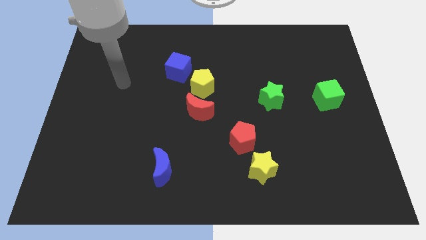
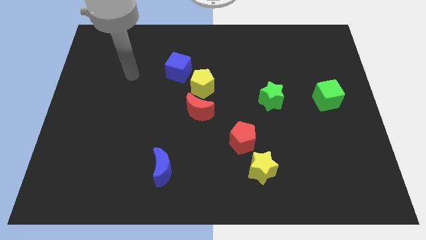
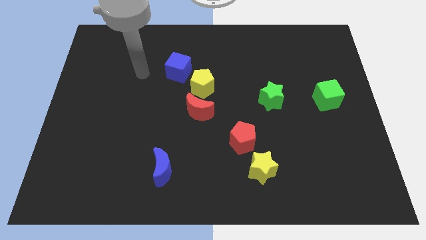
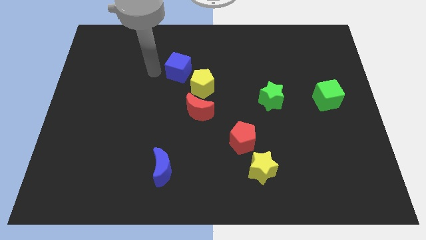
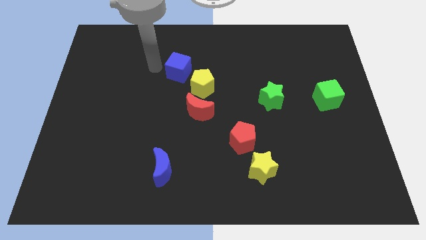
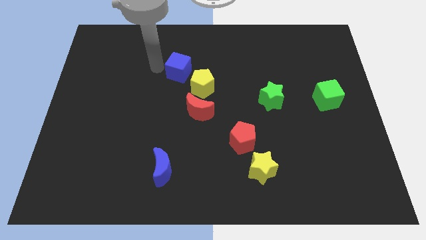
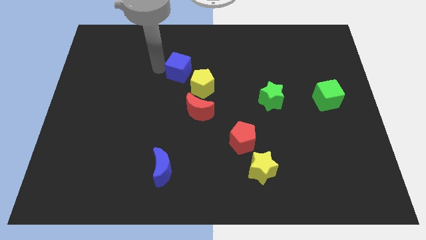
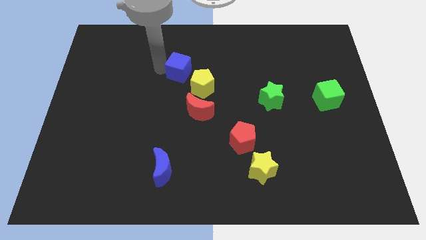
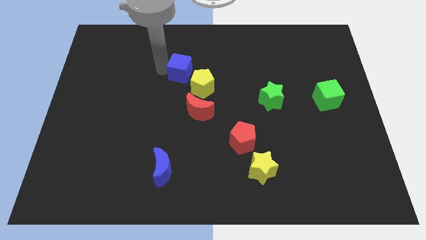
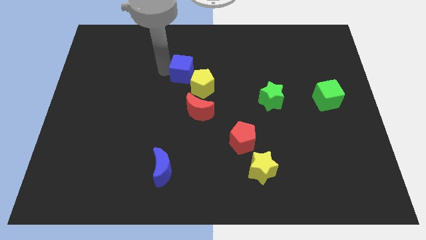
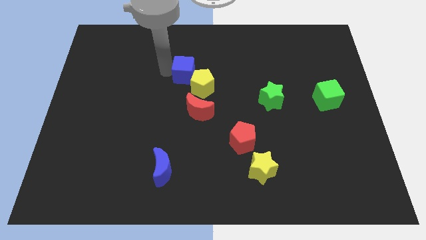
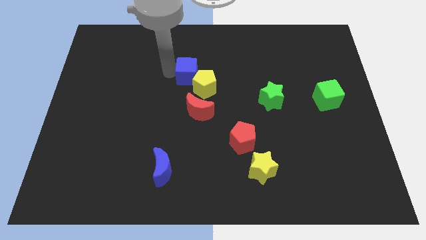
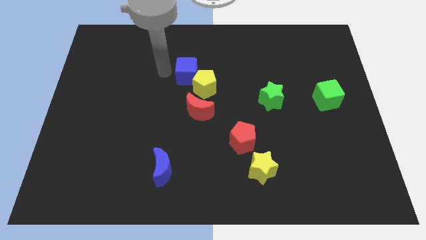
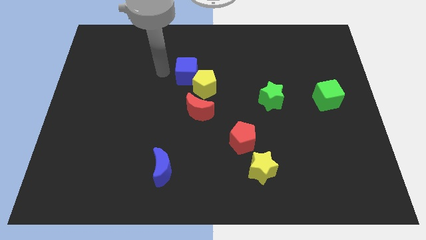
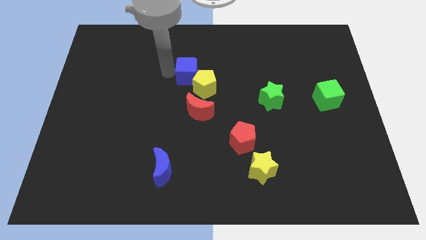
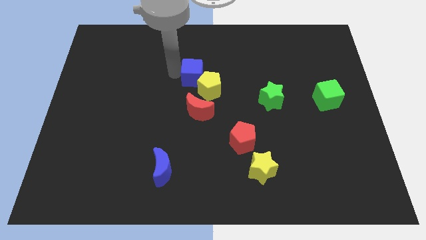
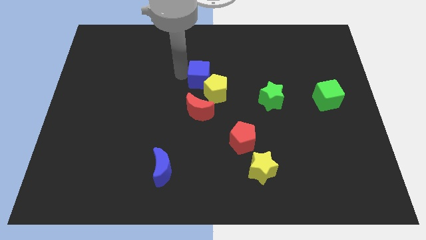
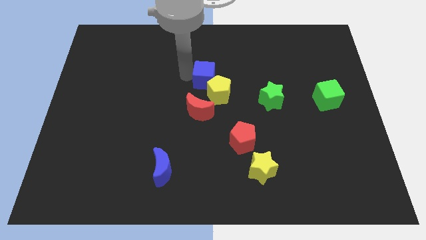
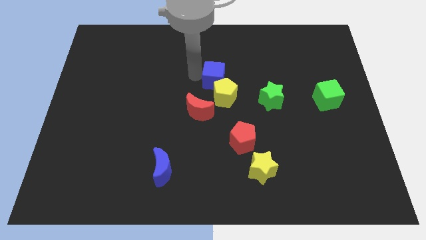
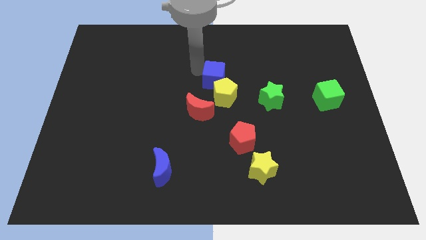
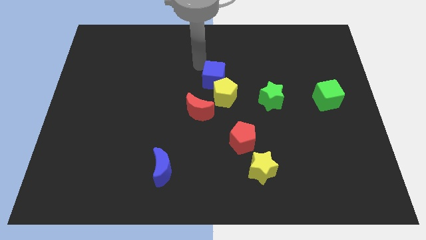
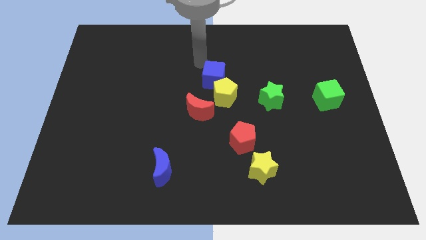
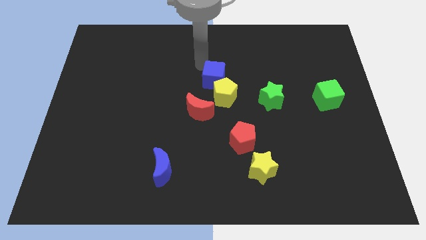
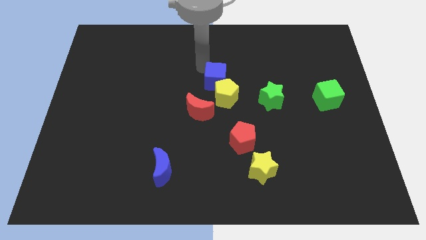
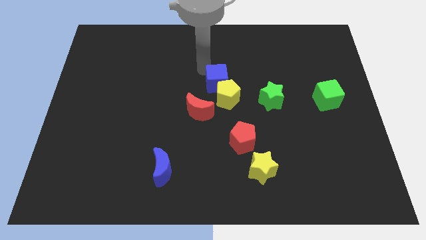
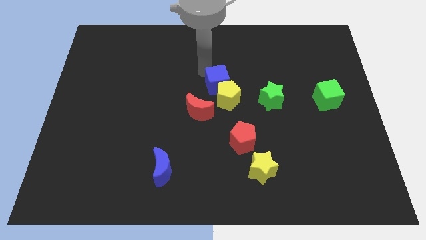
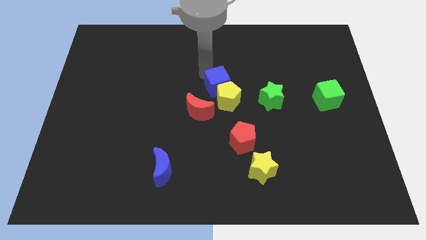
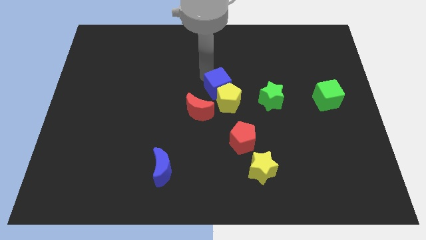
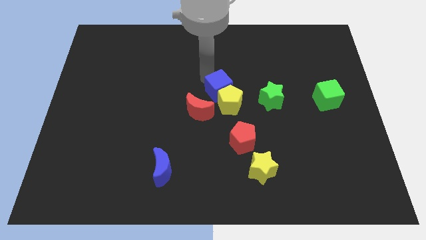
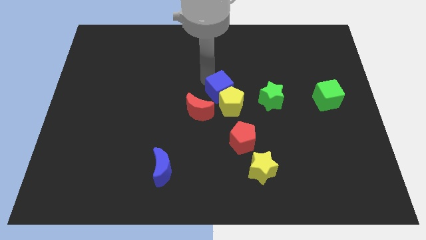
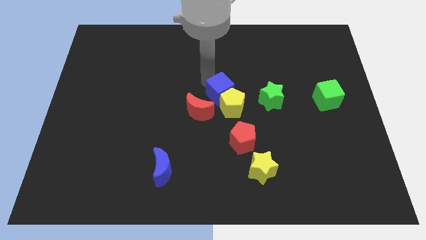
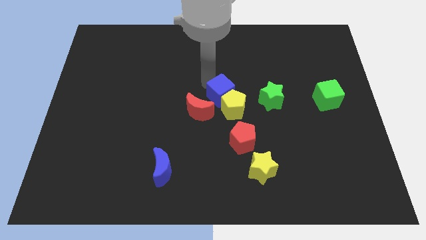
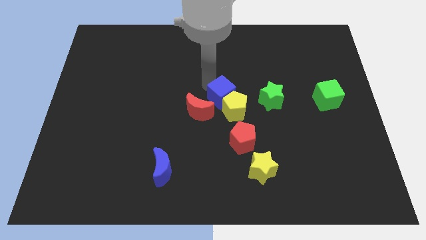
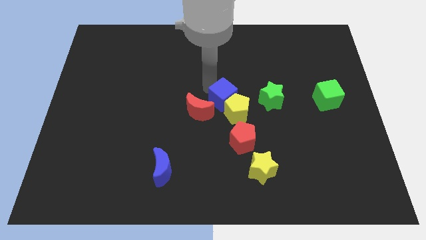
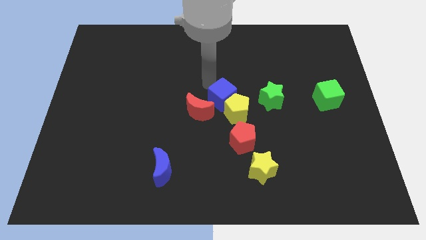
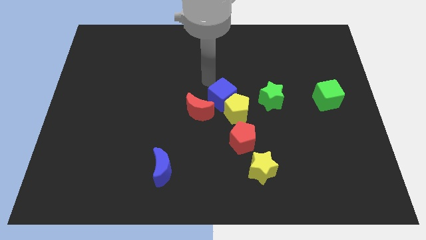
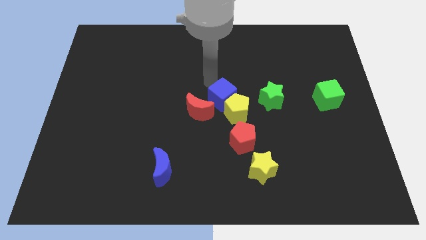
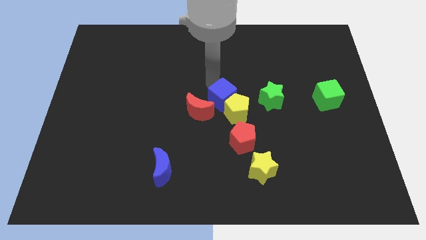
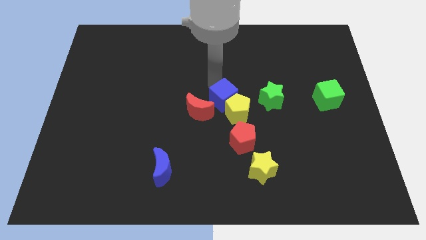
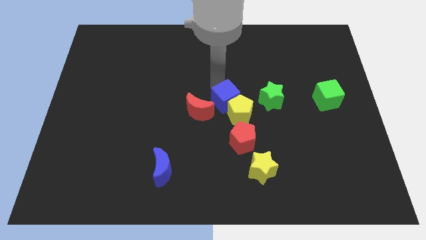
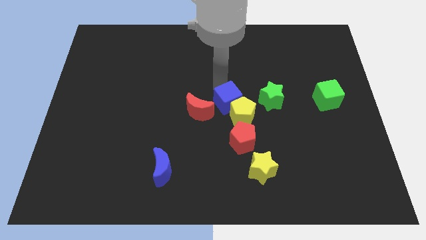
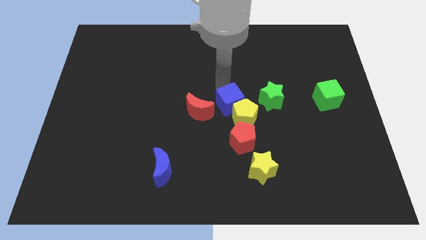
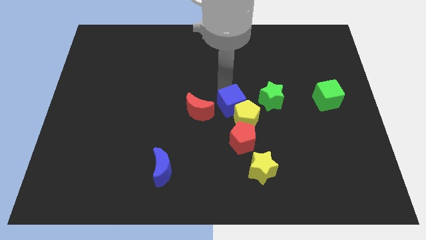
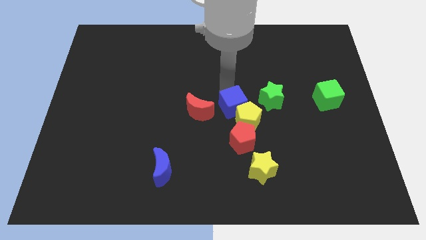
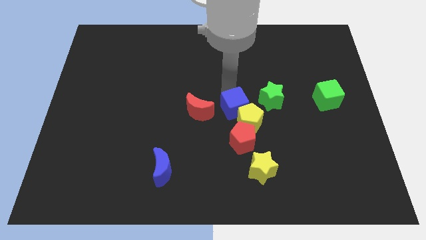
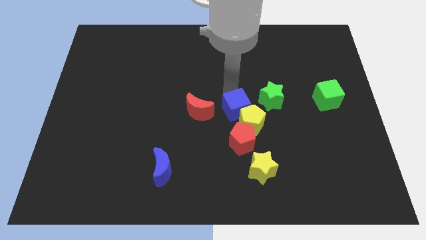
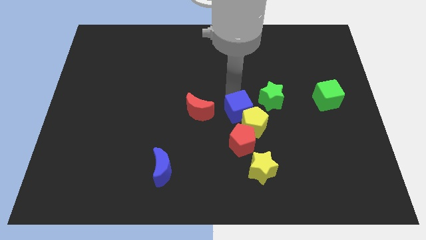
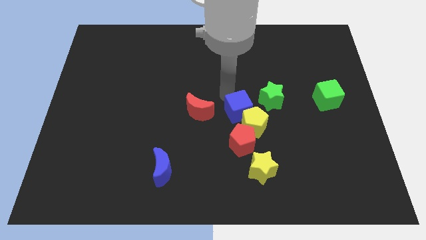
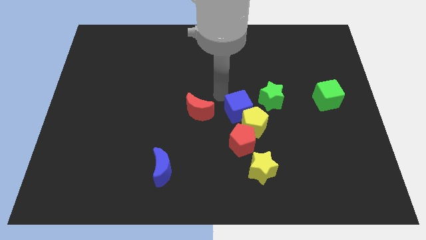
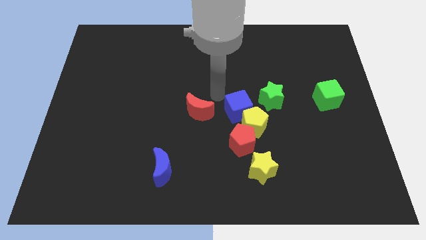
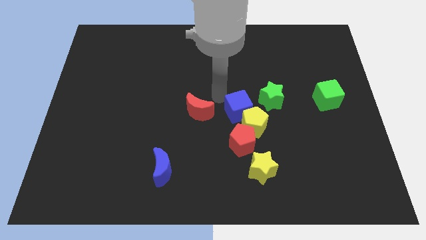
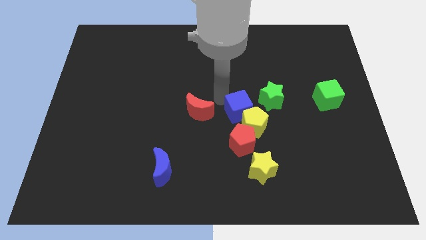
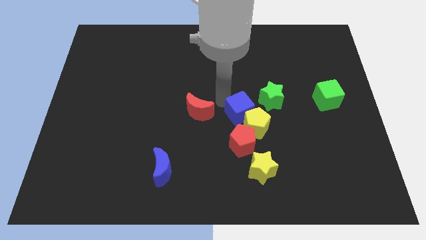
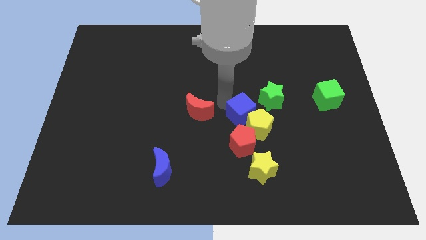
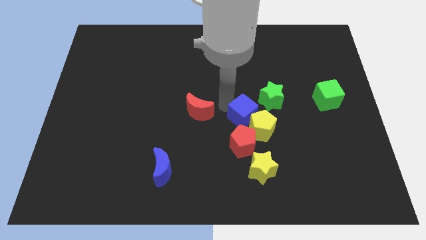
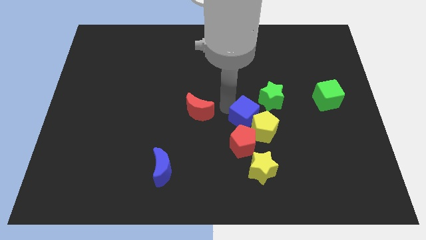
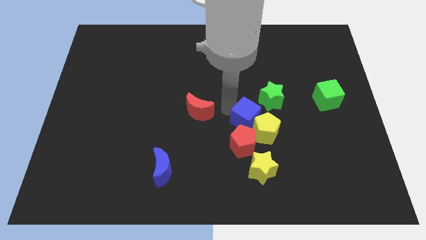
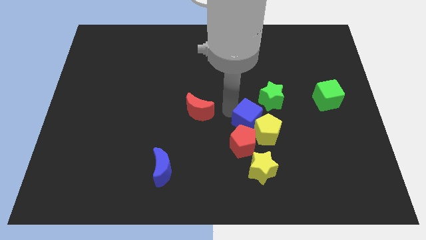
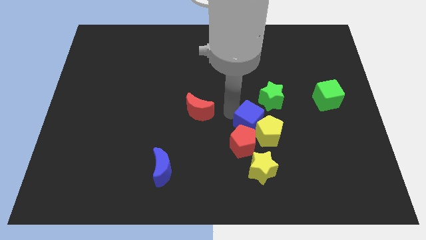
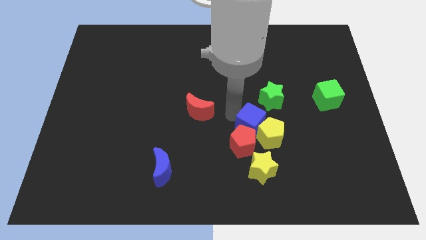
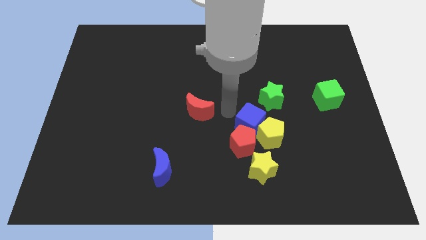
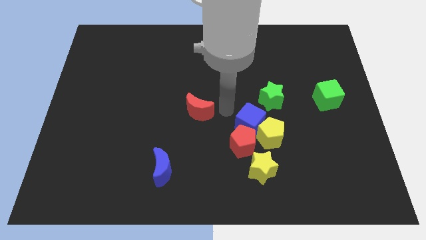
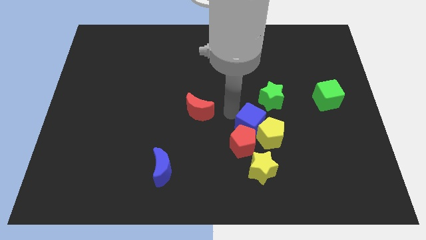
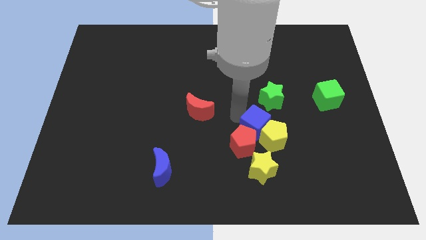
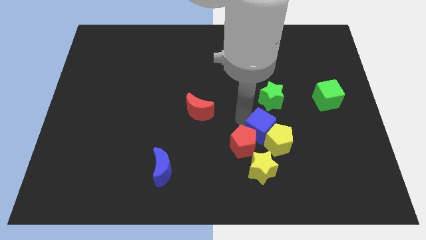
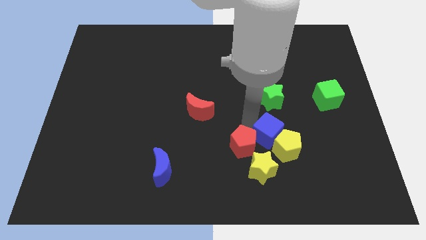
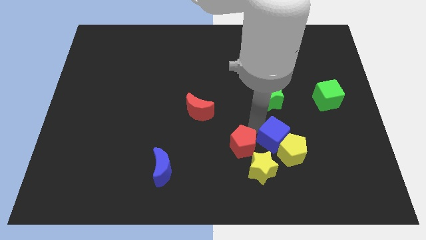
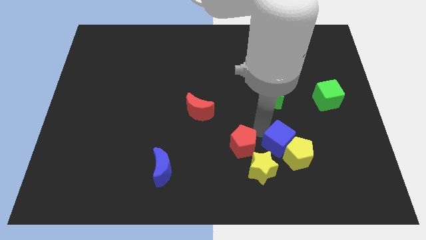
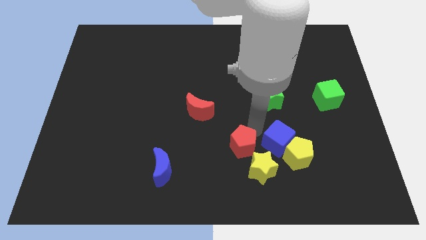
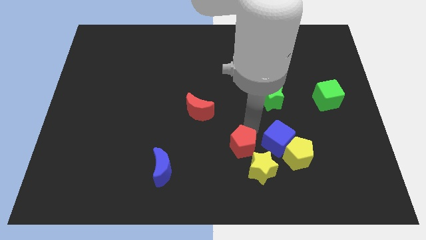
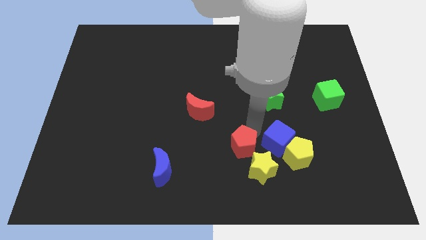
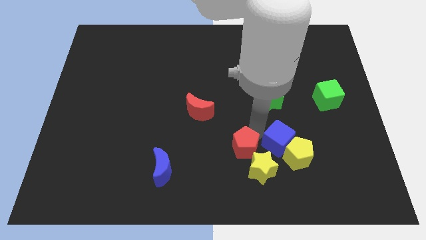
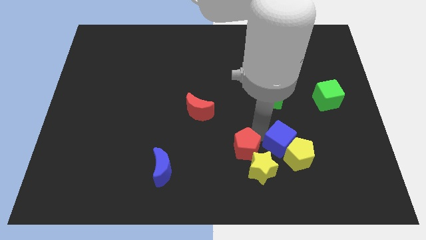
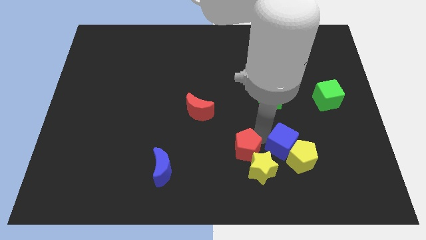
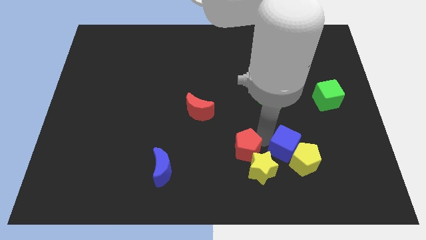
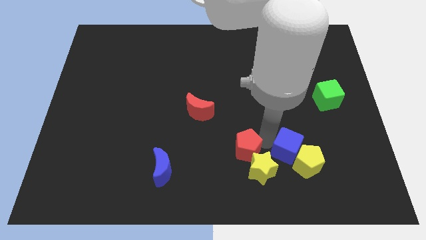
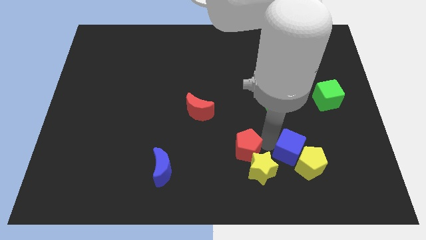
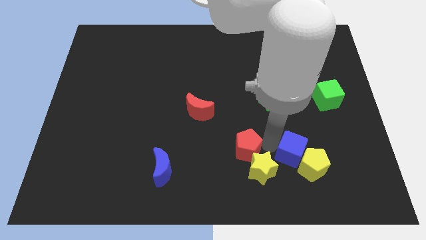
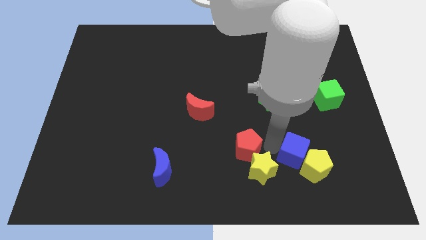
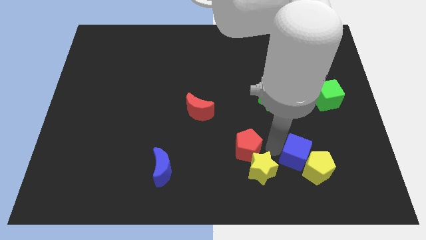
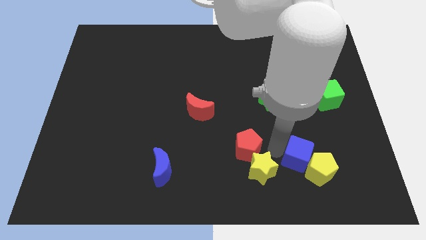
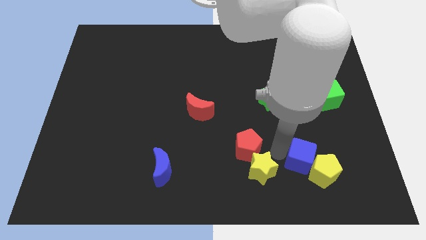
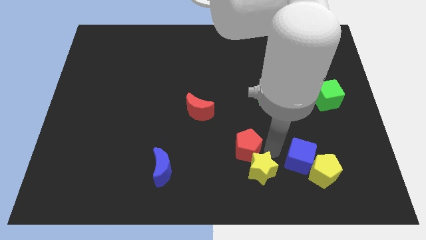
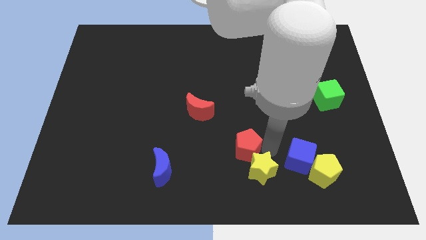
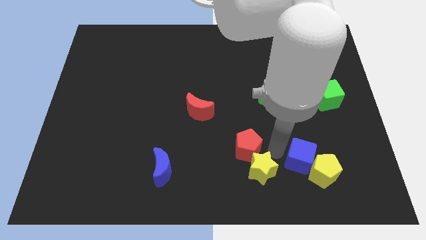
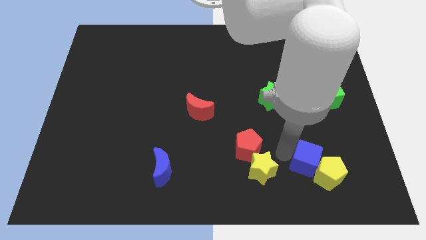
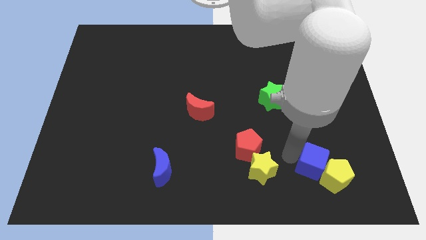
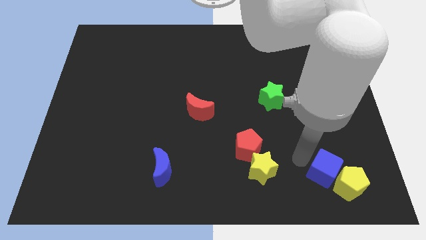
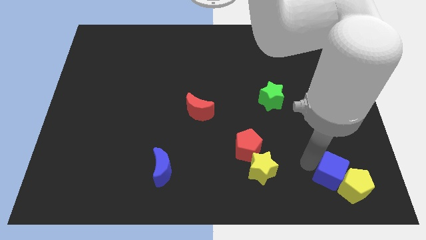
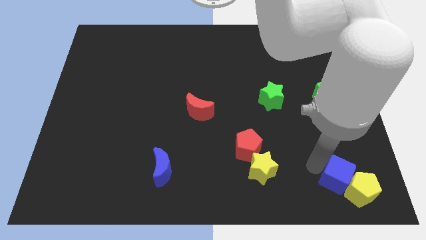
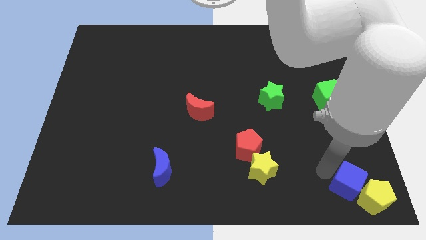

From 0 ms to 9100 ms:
move the blue cube to the bottom right corner
